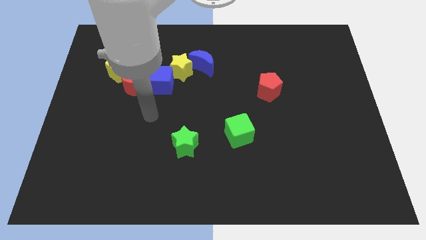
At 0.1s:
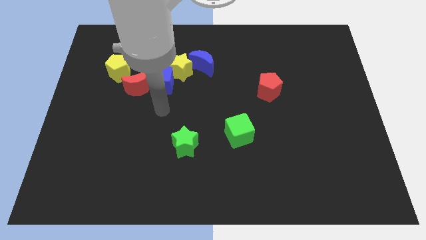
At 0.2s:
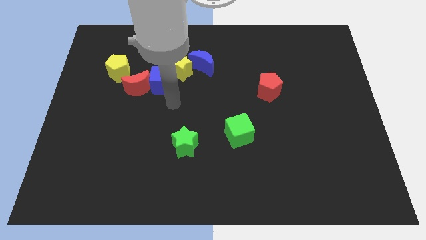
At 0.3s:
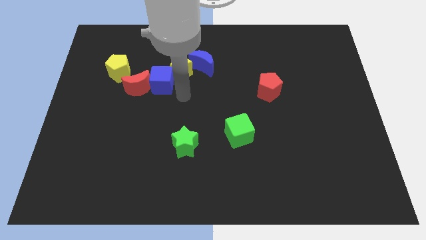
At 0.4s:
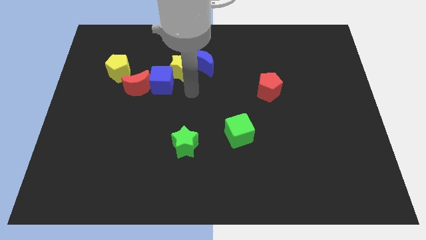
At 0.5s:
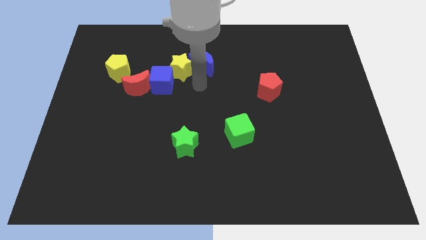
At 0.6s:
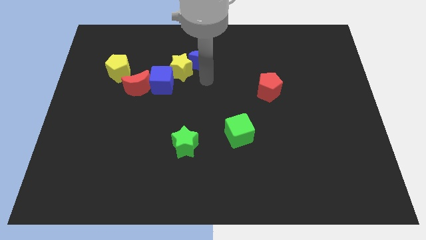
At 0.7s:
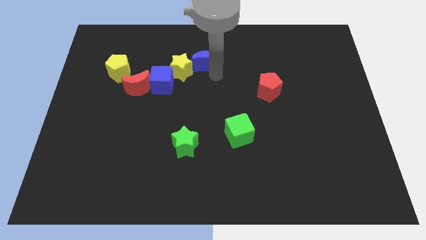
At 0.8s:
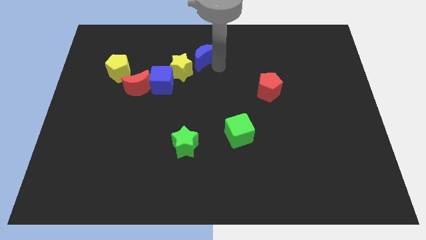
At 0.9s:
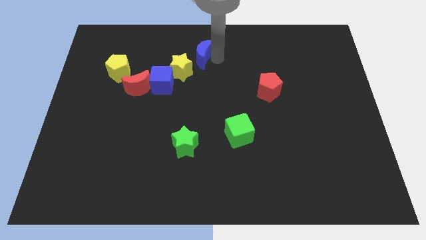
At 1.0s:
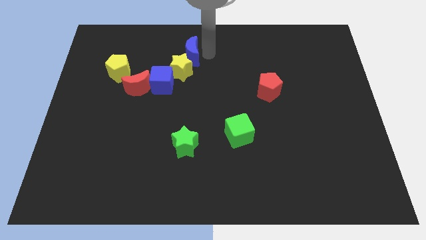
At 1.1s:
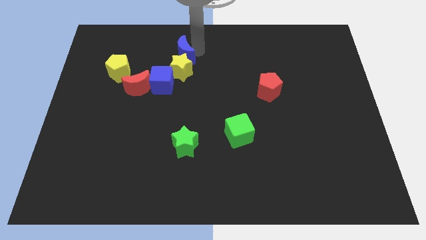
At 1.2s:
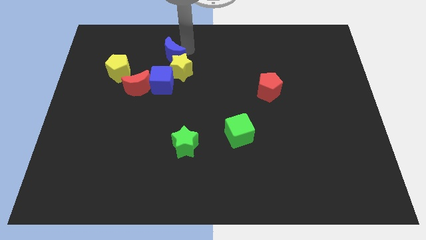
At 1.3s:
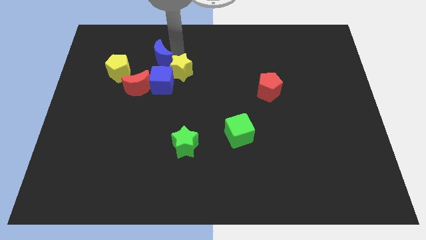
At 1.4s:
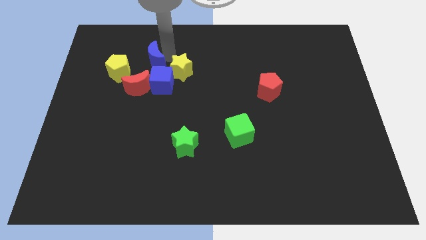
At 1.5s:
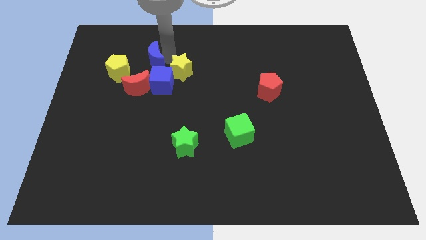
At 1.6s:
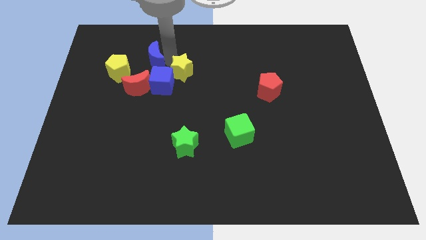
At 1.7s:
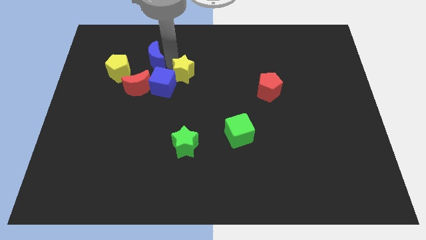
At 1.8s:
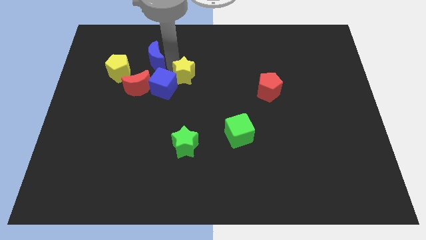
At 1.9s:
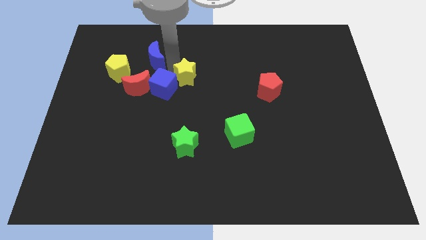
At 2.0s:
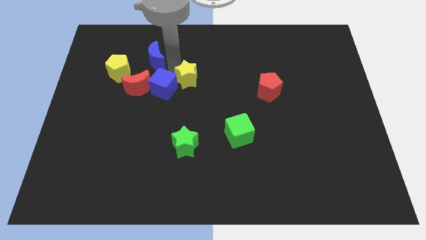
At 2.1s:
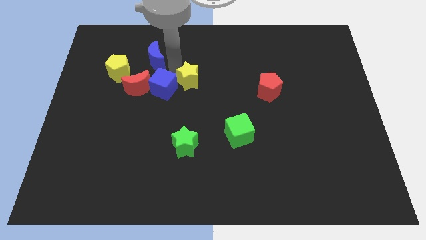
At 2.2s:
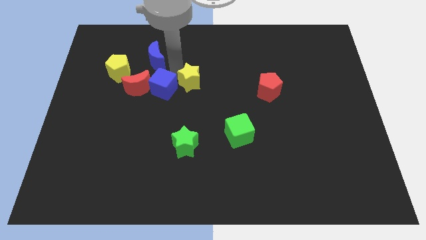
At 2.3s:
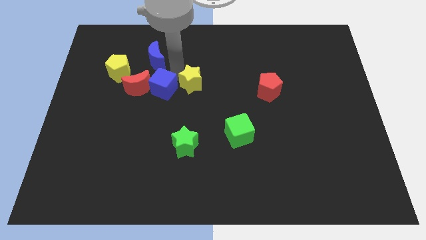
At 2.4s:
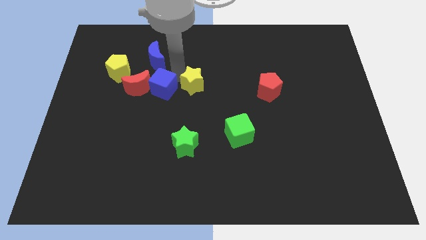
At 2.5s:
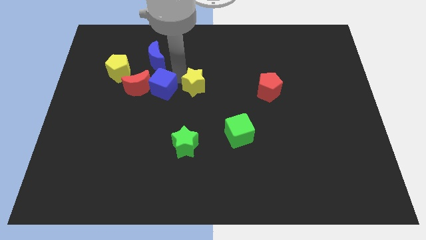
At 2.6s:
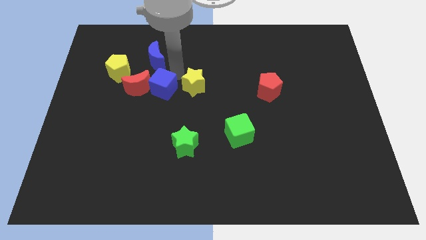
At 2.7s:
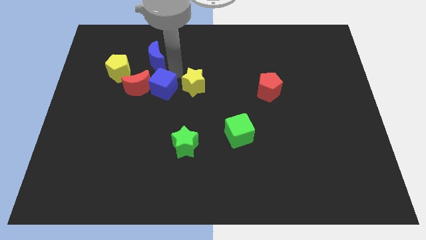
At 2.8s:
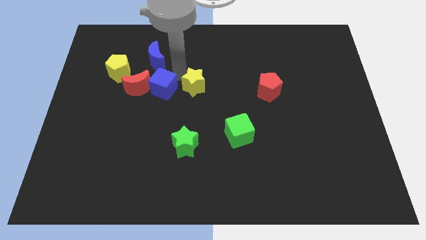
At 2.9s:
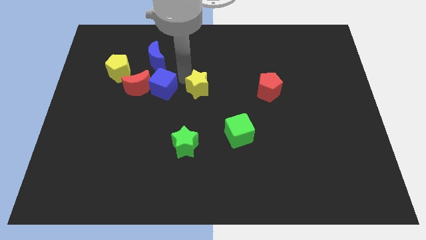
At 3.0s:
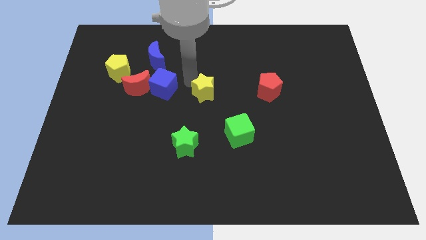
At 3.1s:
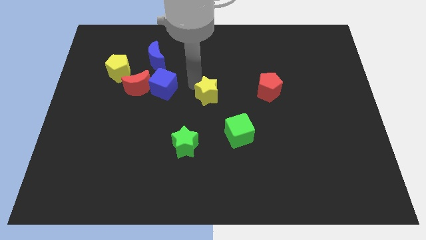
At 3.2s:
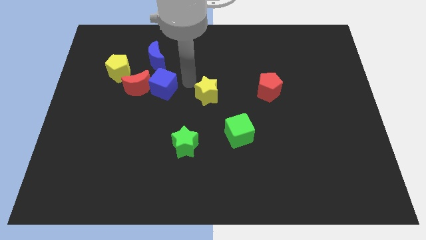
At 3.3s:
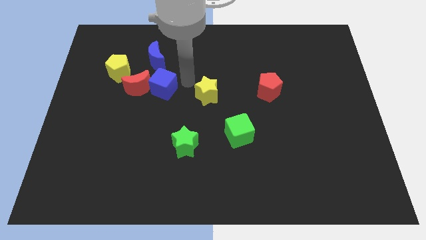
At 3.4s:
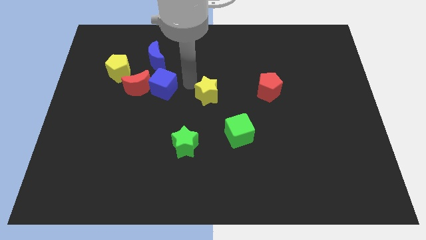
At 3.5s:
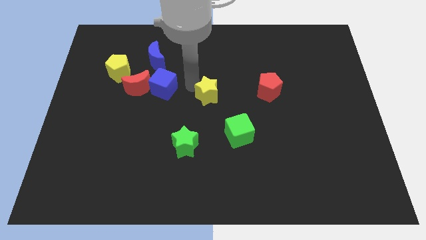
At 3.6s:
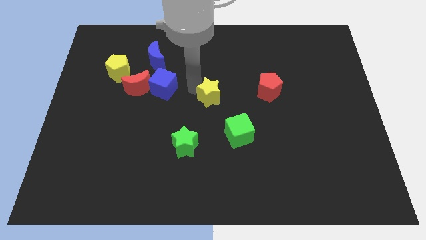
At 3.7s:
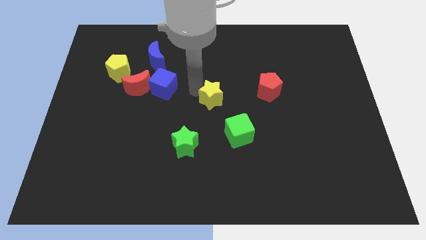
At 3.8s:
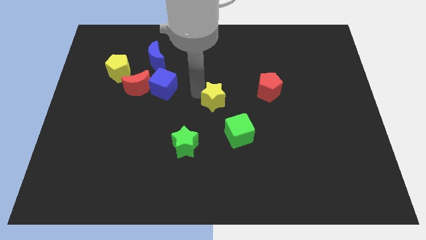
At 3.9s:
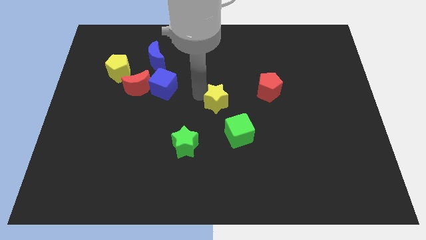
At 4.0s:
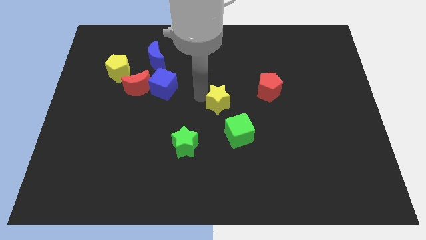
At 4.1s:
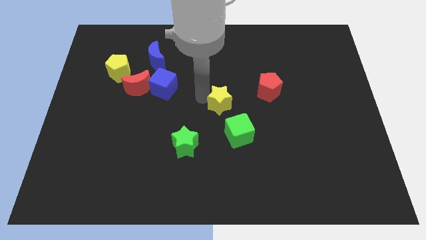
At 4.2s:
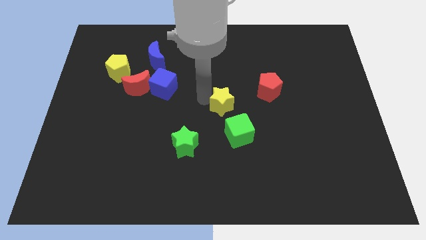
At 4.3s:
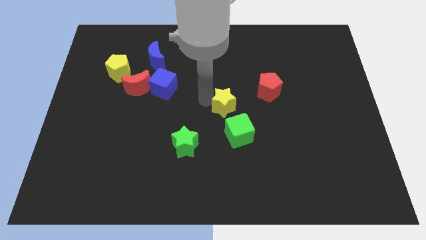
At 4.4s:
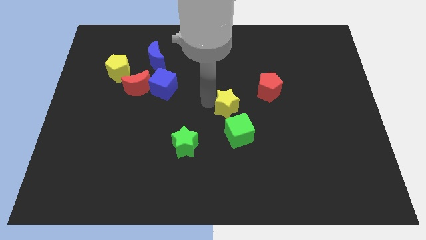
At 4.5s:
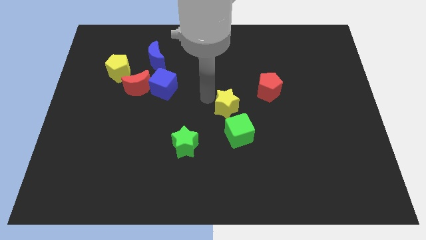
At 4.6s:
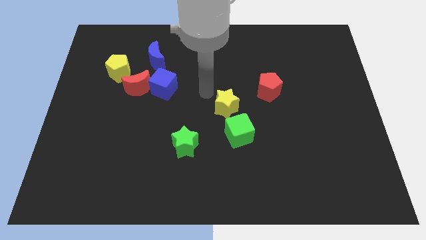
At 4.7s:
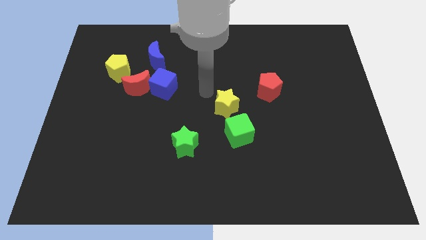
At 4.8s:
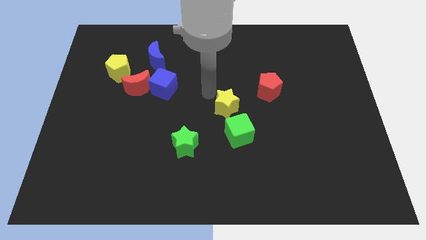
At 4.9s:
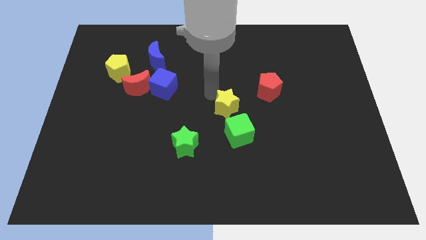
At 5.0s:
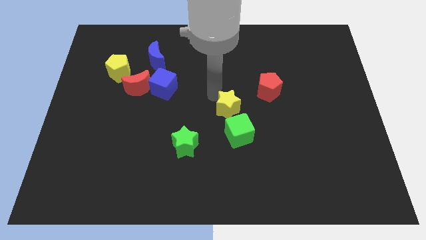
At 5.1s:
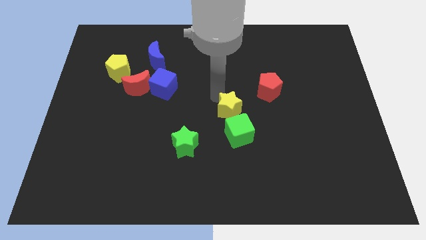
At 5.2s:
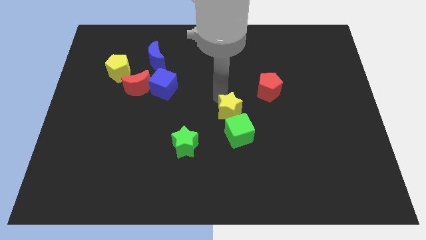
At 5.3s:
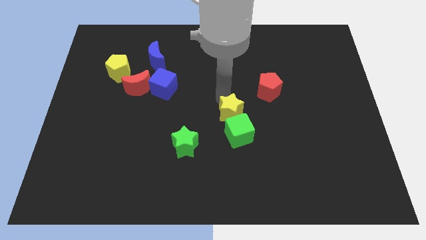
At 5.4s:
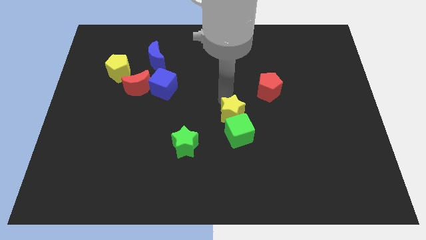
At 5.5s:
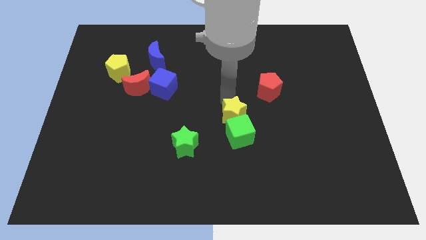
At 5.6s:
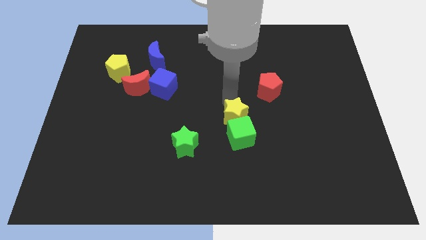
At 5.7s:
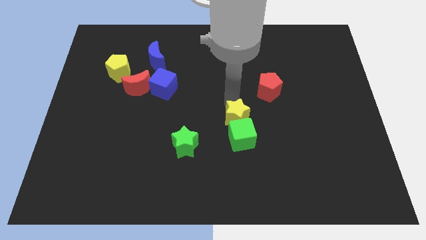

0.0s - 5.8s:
push the yellow star diagonally downwards and to the right

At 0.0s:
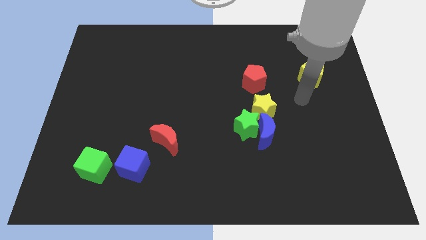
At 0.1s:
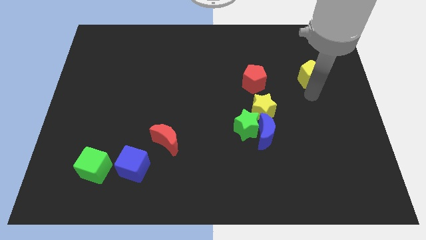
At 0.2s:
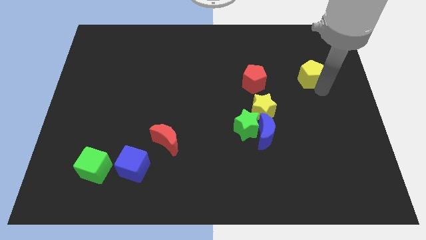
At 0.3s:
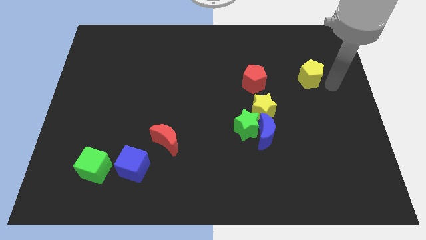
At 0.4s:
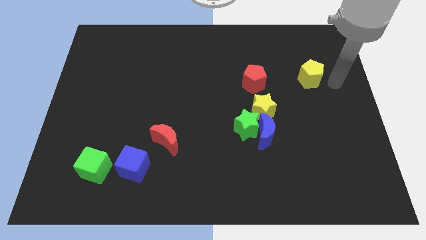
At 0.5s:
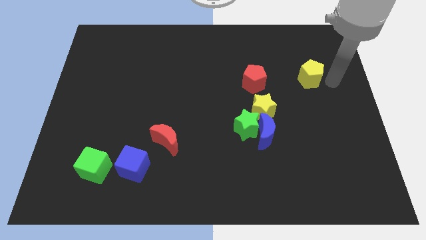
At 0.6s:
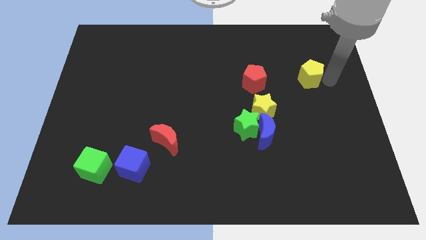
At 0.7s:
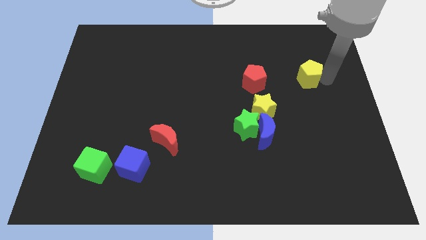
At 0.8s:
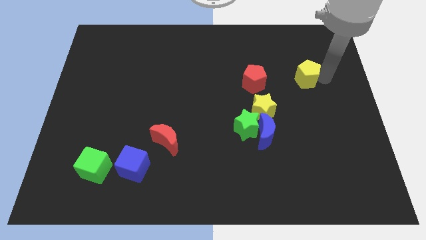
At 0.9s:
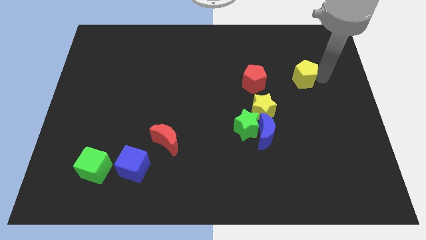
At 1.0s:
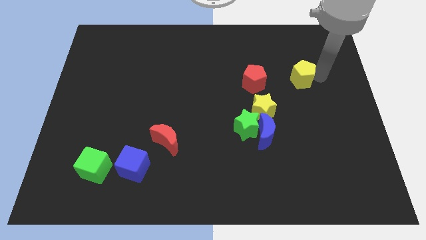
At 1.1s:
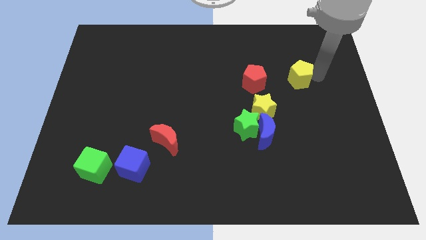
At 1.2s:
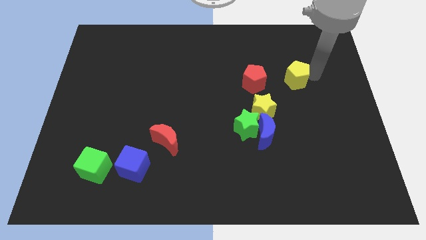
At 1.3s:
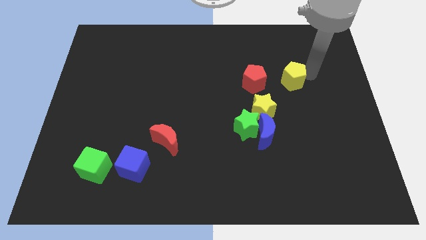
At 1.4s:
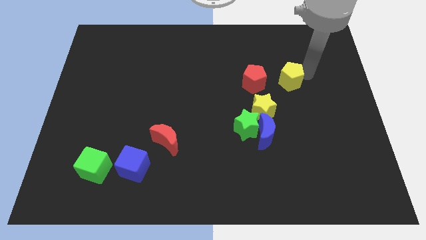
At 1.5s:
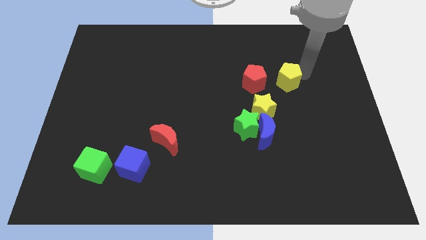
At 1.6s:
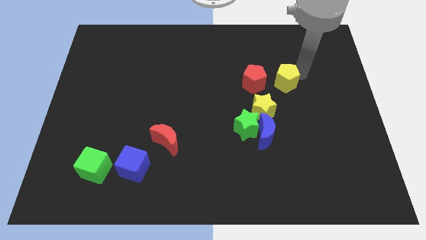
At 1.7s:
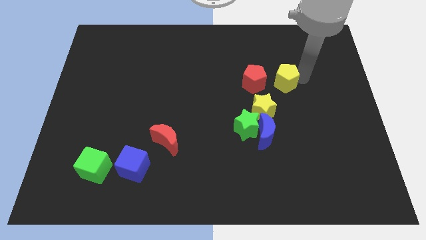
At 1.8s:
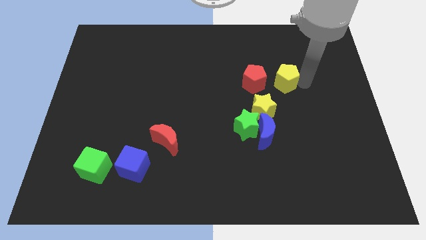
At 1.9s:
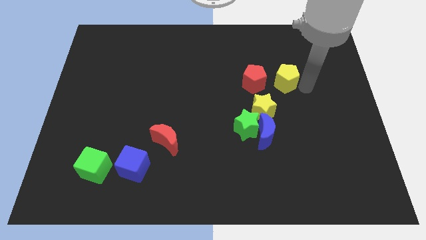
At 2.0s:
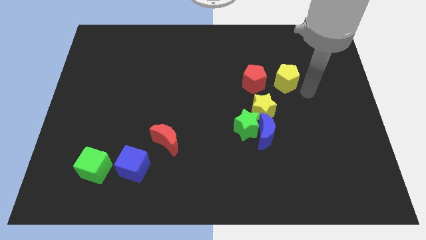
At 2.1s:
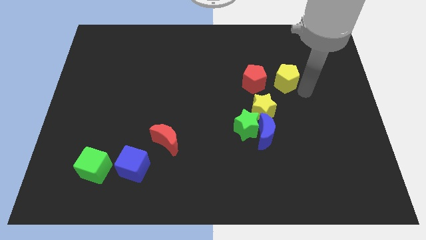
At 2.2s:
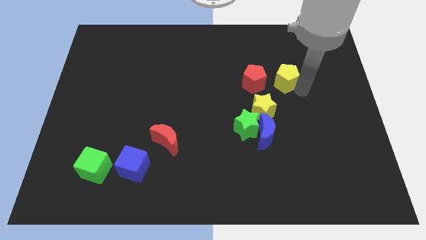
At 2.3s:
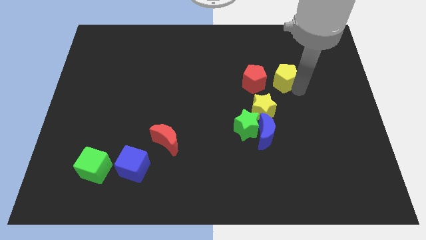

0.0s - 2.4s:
slide the yellow pentagon somewhat left
